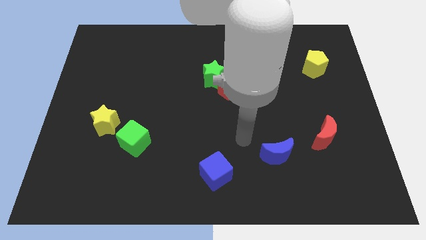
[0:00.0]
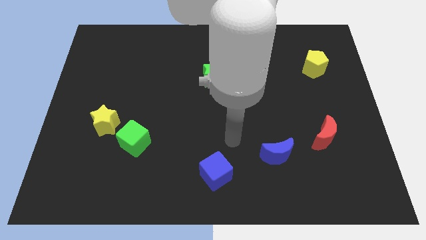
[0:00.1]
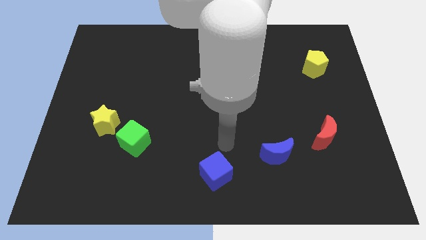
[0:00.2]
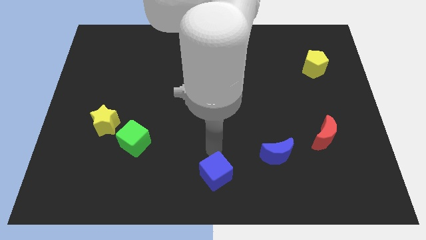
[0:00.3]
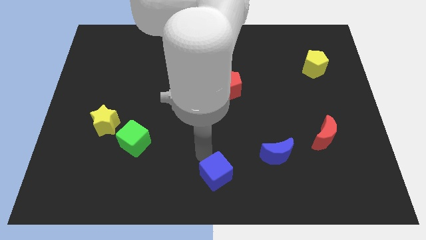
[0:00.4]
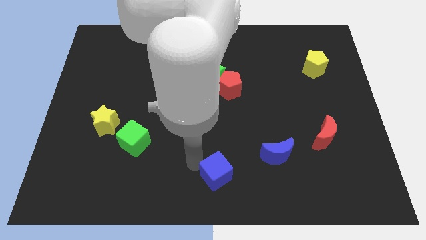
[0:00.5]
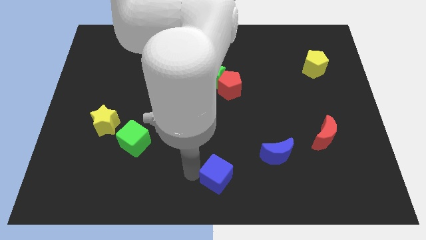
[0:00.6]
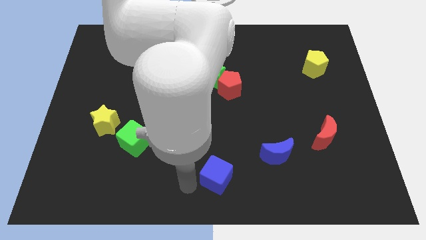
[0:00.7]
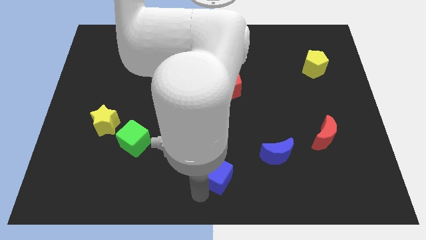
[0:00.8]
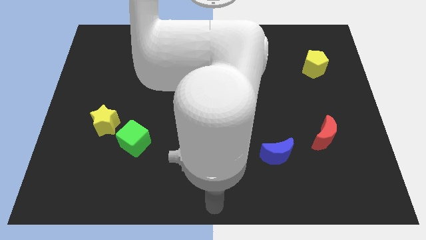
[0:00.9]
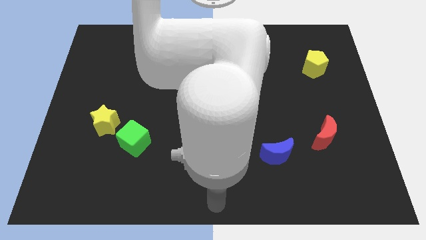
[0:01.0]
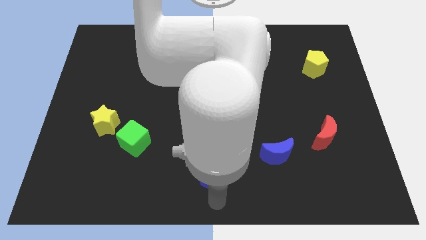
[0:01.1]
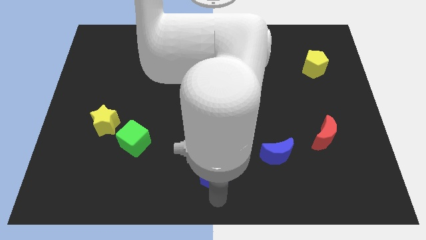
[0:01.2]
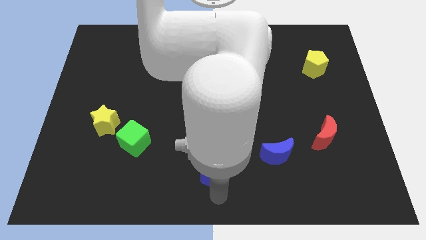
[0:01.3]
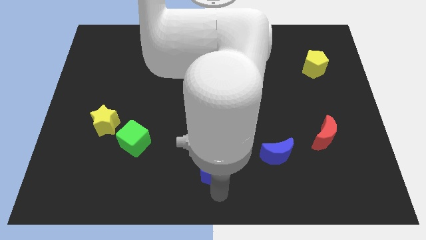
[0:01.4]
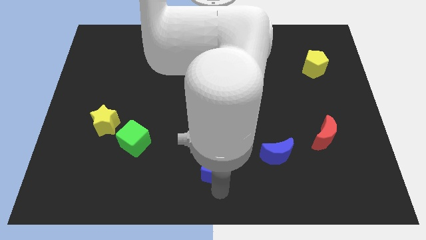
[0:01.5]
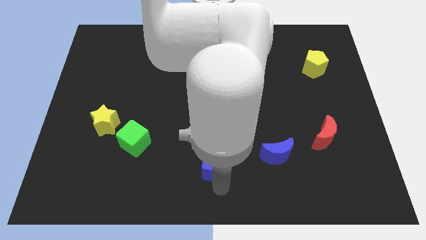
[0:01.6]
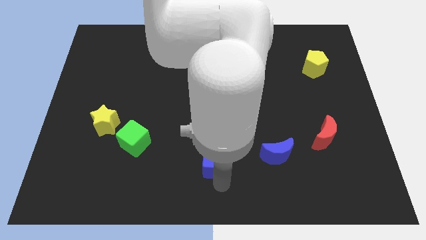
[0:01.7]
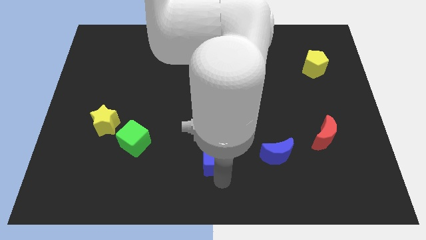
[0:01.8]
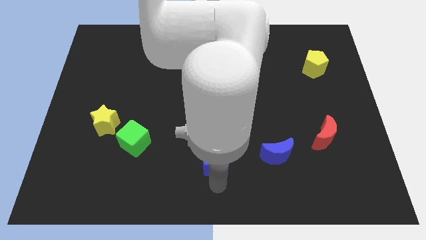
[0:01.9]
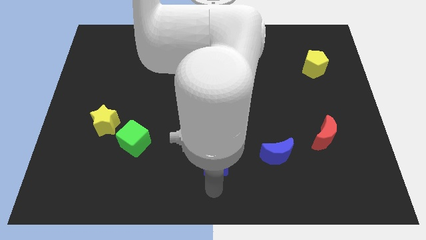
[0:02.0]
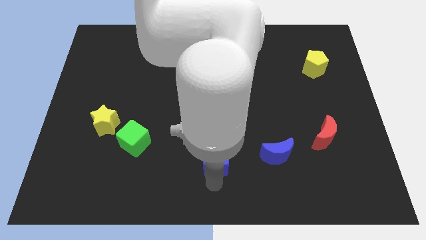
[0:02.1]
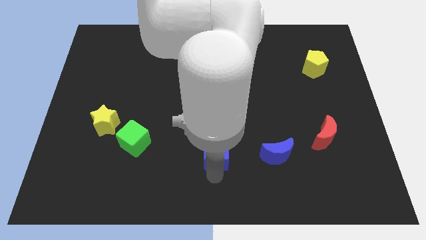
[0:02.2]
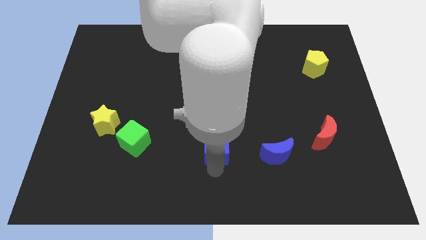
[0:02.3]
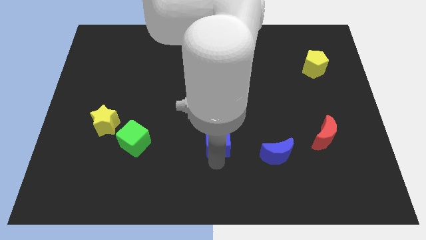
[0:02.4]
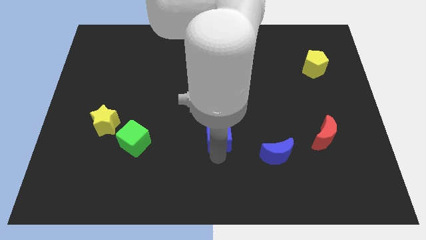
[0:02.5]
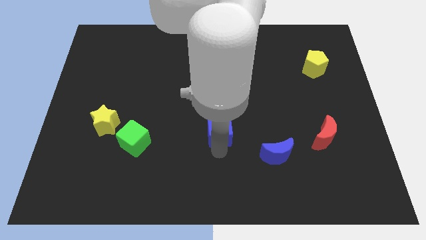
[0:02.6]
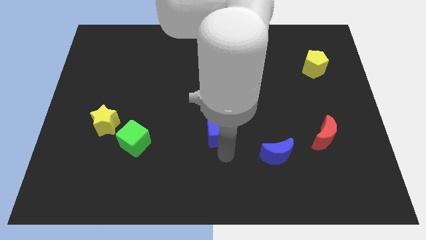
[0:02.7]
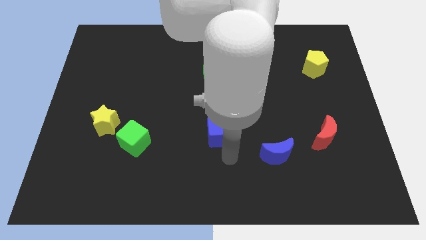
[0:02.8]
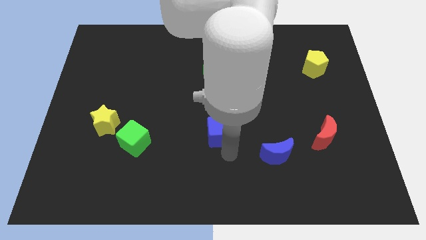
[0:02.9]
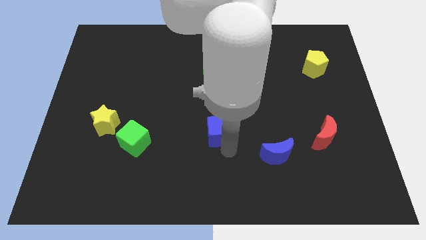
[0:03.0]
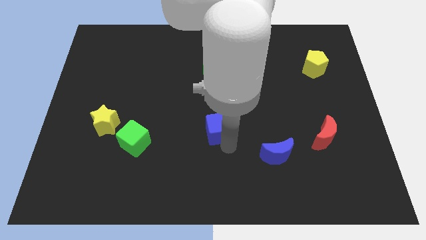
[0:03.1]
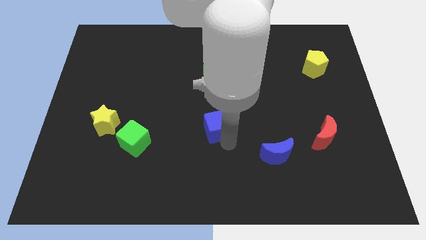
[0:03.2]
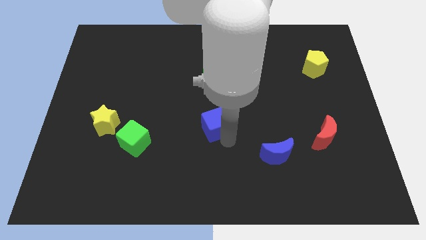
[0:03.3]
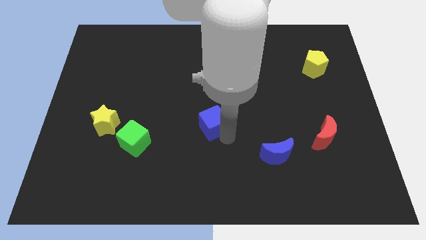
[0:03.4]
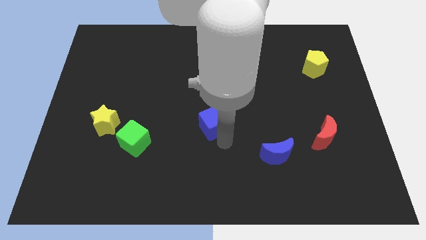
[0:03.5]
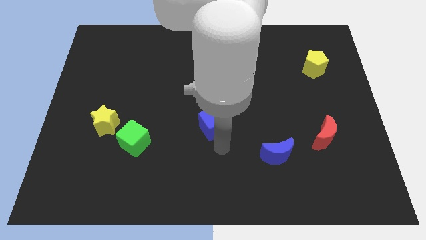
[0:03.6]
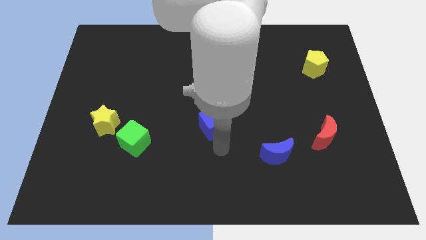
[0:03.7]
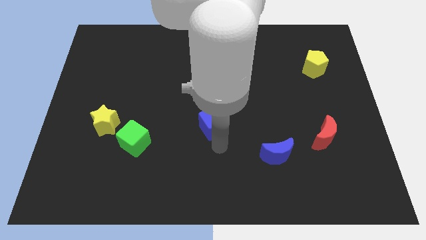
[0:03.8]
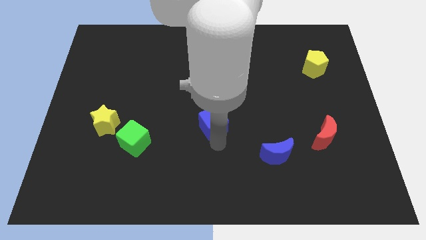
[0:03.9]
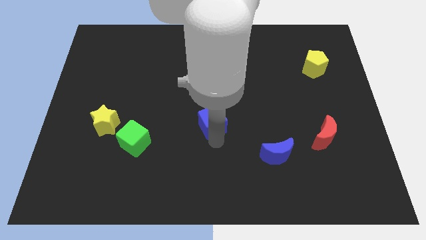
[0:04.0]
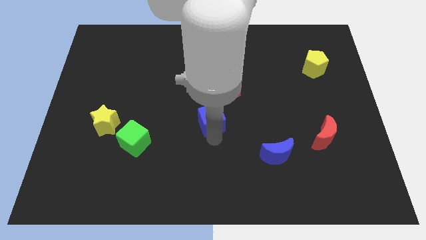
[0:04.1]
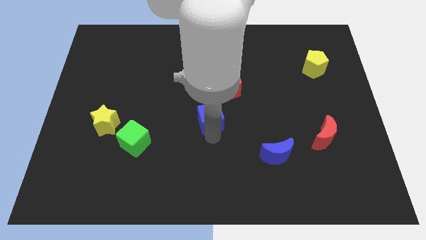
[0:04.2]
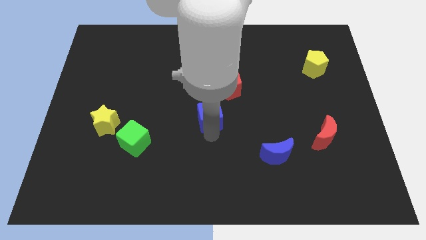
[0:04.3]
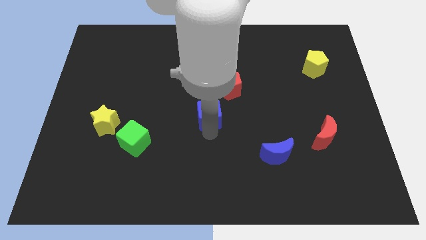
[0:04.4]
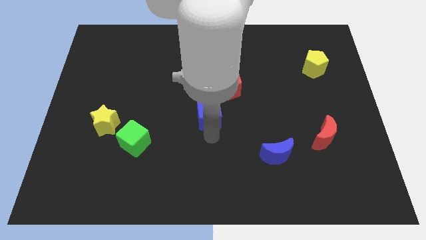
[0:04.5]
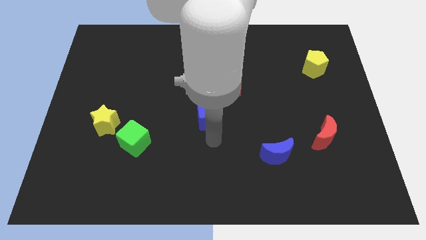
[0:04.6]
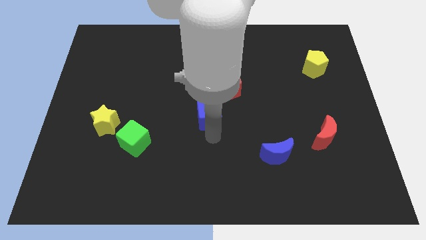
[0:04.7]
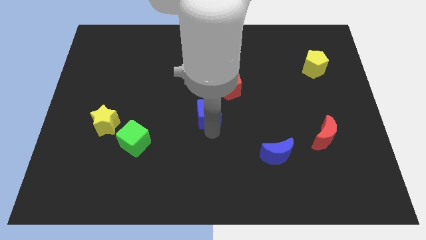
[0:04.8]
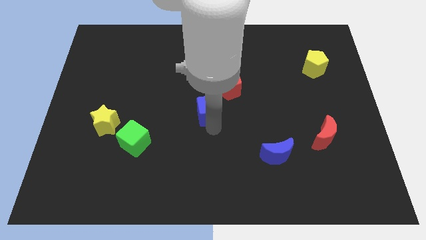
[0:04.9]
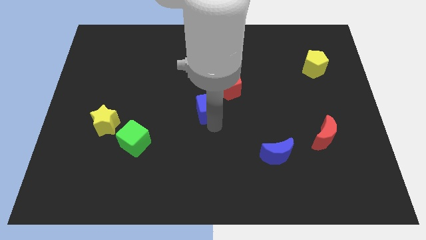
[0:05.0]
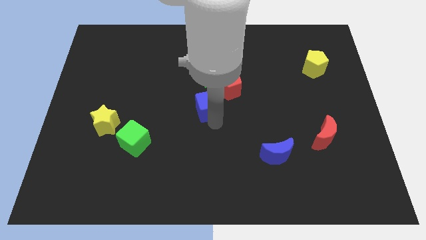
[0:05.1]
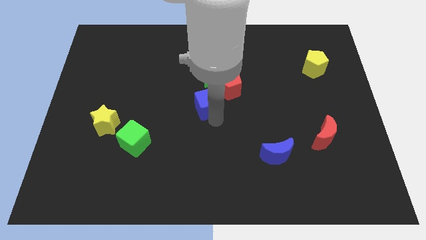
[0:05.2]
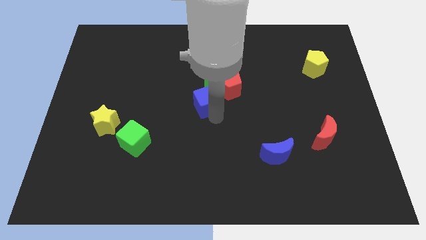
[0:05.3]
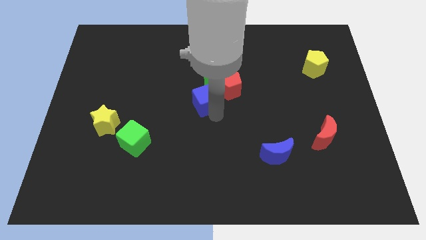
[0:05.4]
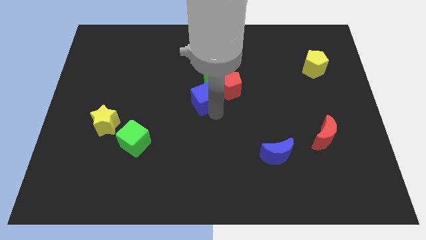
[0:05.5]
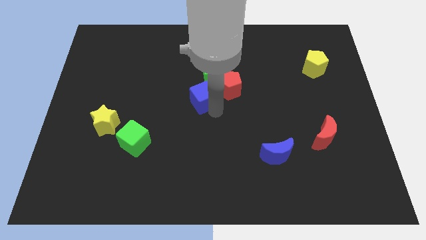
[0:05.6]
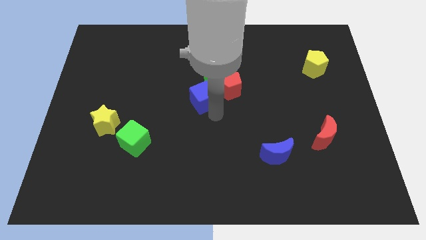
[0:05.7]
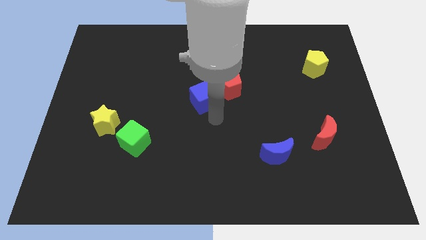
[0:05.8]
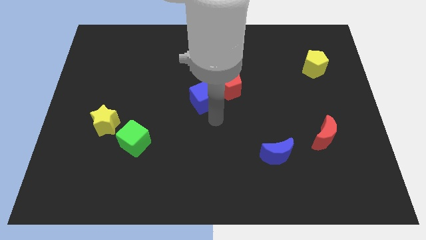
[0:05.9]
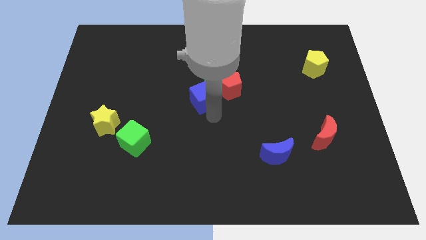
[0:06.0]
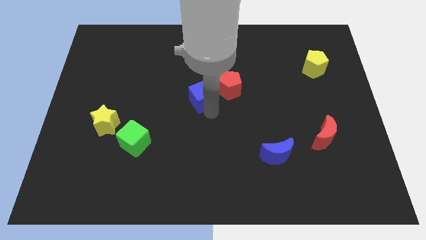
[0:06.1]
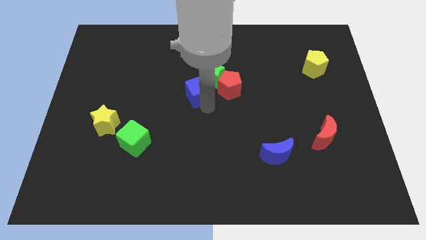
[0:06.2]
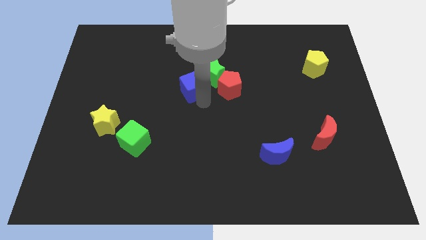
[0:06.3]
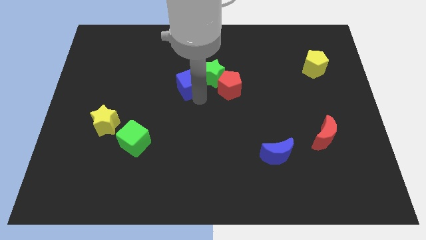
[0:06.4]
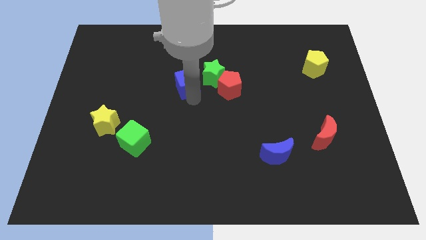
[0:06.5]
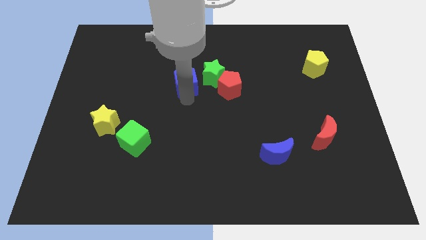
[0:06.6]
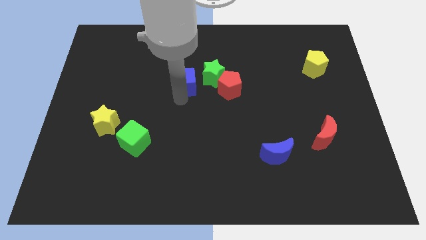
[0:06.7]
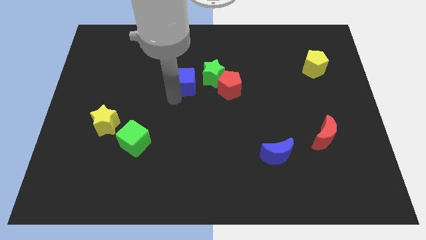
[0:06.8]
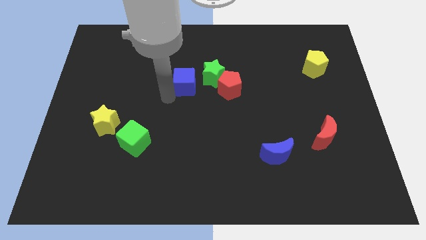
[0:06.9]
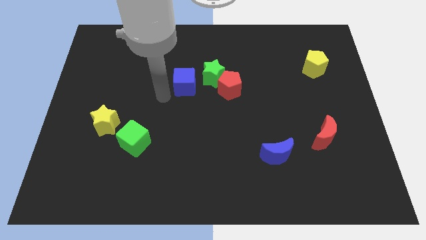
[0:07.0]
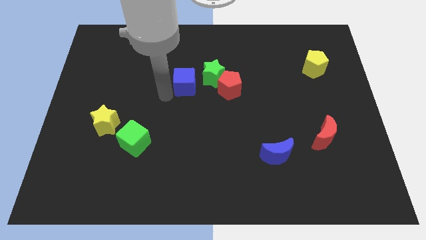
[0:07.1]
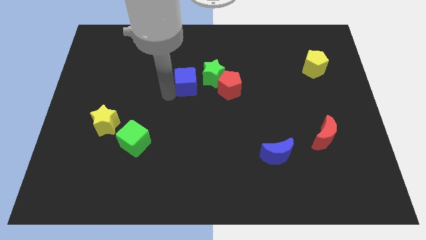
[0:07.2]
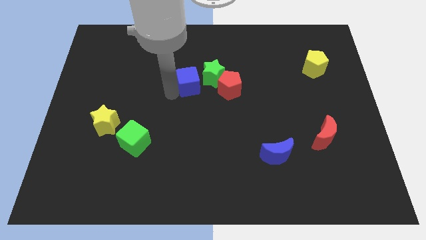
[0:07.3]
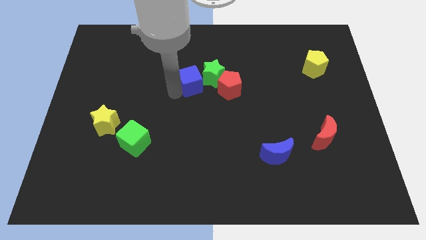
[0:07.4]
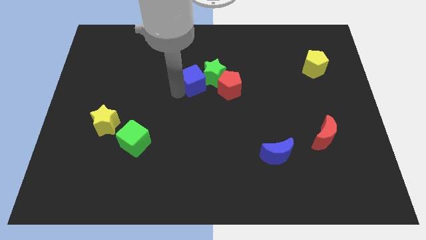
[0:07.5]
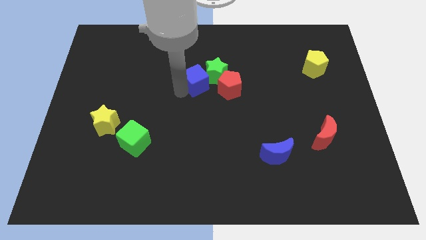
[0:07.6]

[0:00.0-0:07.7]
put the blue cube to the top left of the red pentagon

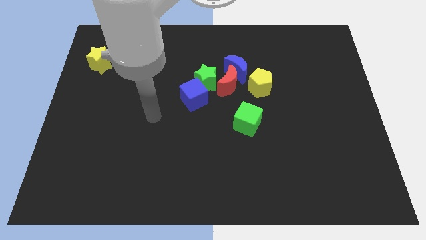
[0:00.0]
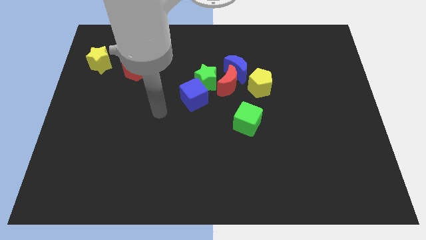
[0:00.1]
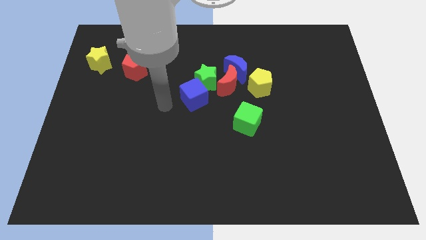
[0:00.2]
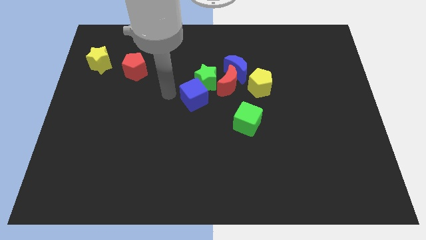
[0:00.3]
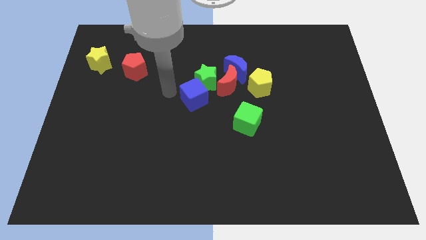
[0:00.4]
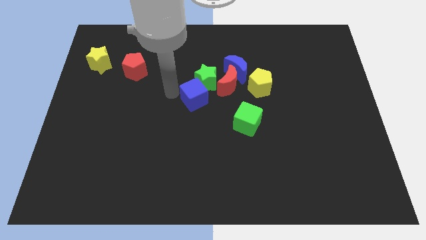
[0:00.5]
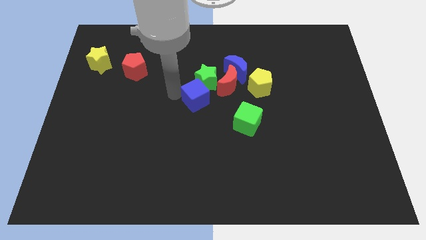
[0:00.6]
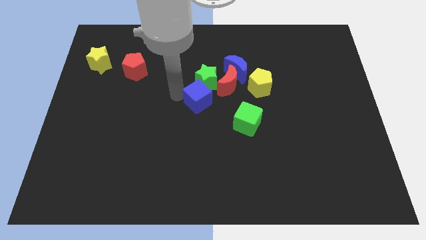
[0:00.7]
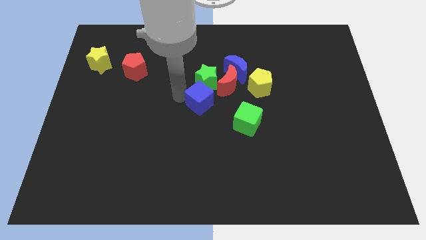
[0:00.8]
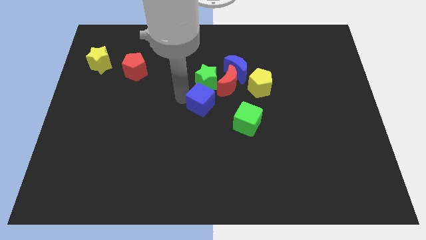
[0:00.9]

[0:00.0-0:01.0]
put the blue cube to the top left of the green cube
